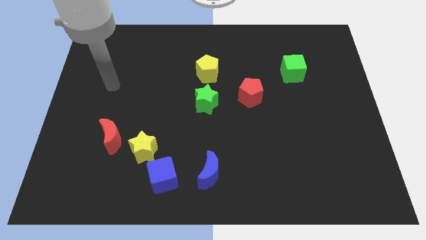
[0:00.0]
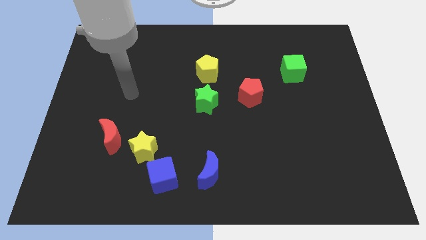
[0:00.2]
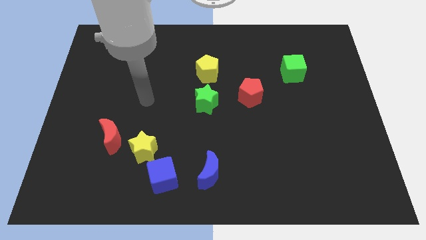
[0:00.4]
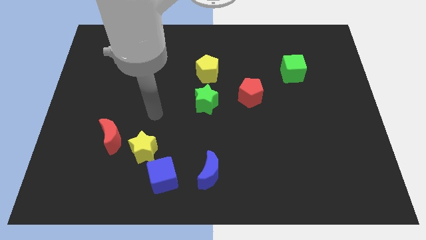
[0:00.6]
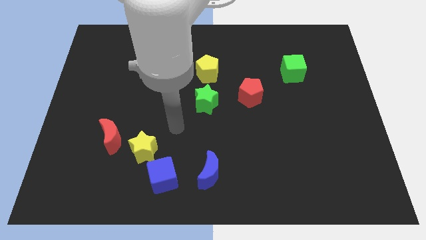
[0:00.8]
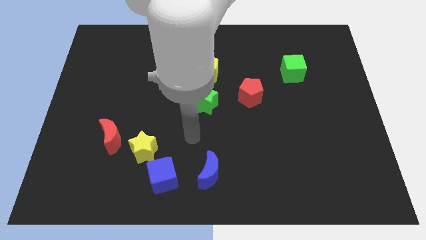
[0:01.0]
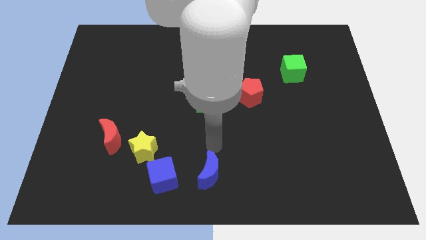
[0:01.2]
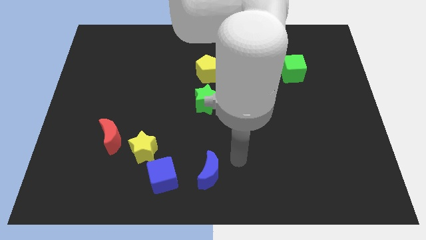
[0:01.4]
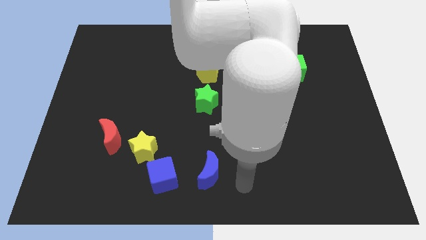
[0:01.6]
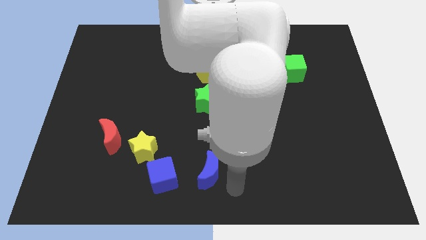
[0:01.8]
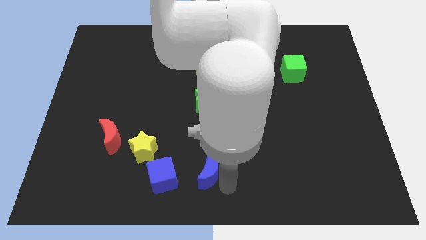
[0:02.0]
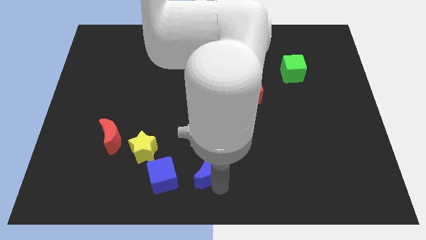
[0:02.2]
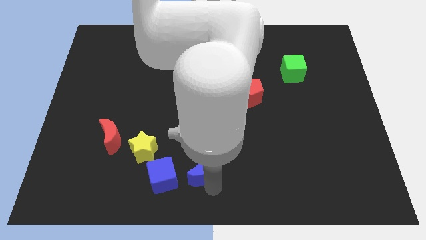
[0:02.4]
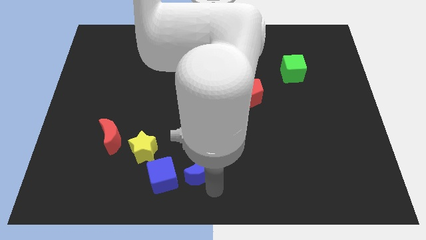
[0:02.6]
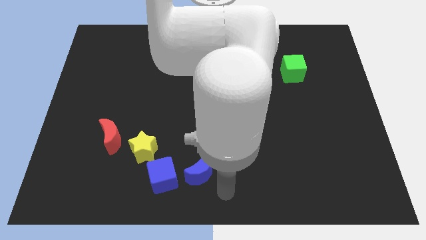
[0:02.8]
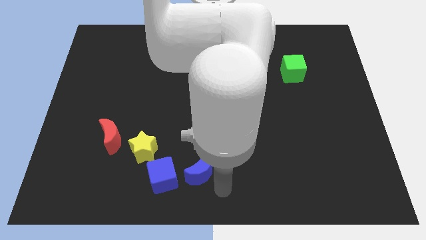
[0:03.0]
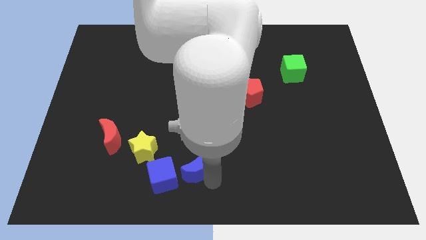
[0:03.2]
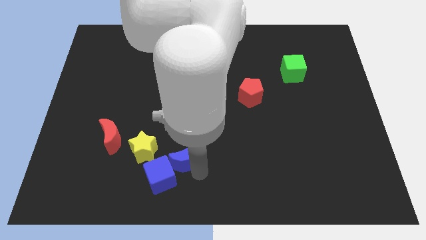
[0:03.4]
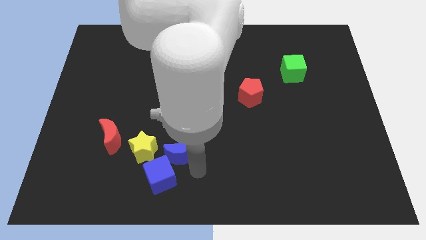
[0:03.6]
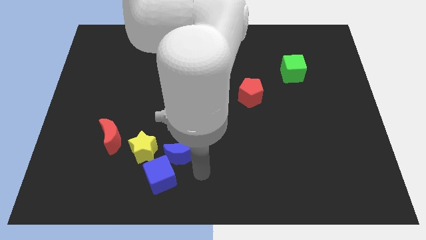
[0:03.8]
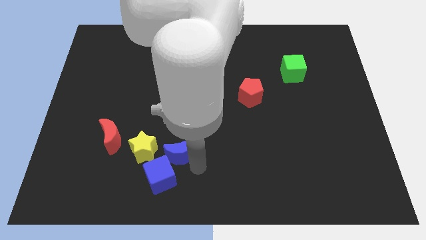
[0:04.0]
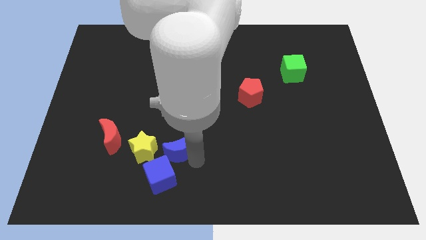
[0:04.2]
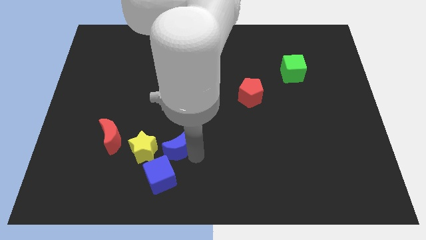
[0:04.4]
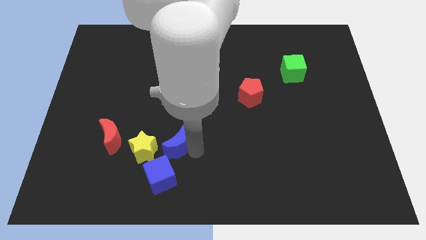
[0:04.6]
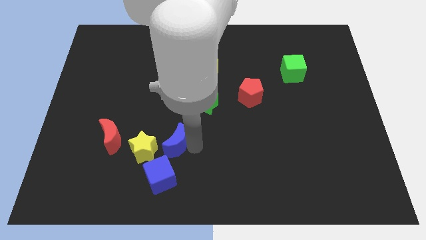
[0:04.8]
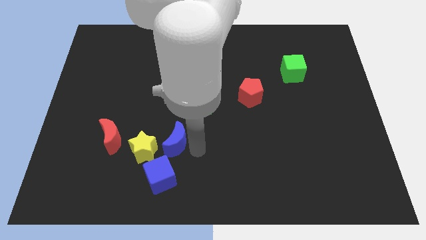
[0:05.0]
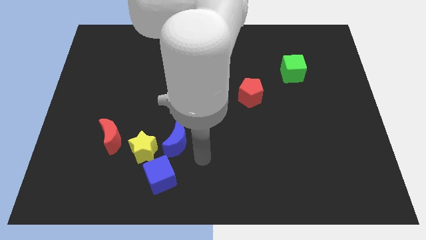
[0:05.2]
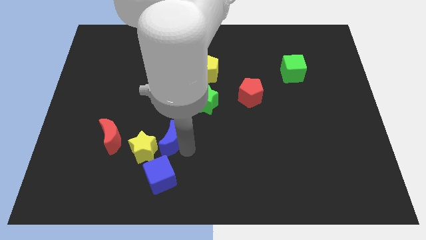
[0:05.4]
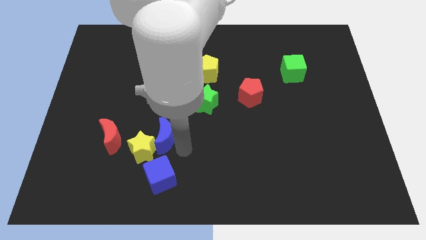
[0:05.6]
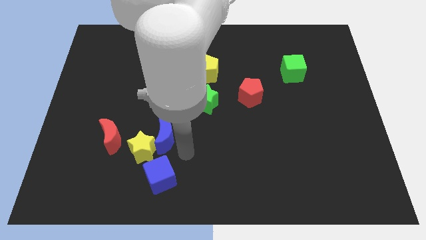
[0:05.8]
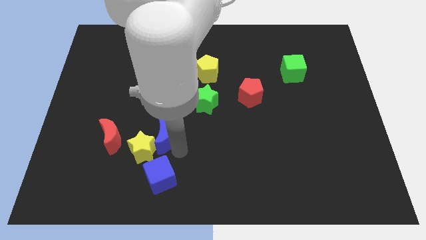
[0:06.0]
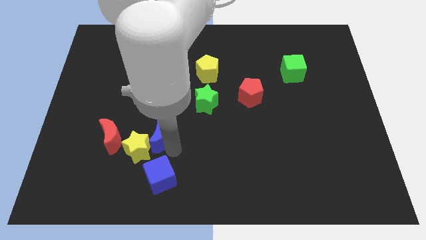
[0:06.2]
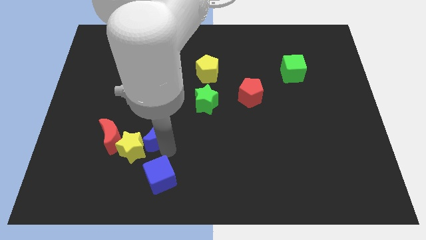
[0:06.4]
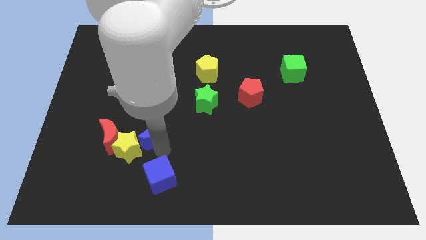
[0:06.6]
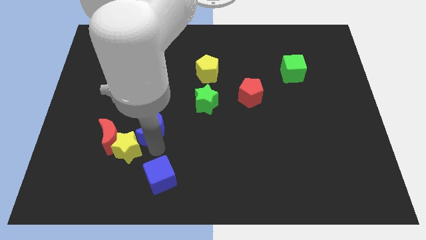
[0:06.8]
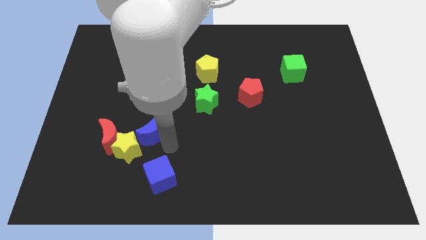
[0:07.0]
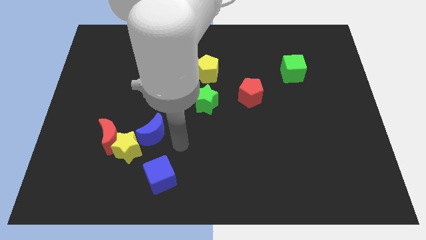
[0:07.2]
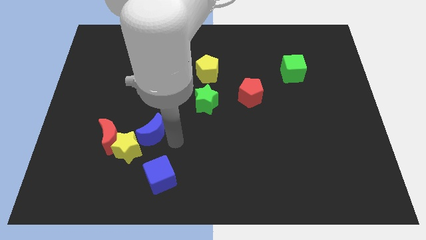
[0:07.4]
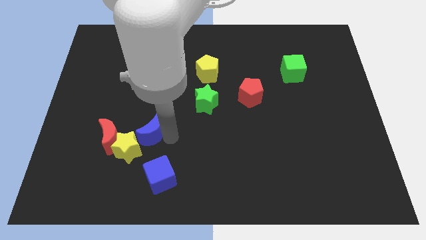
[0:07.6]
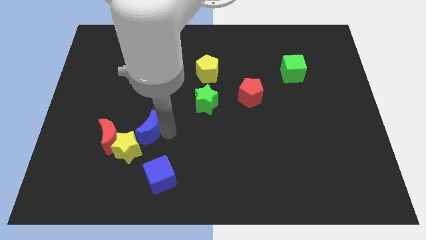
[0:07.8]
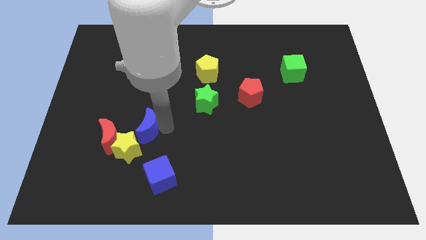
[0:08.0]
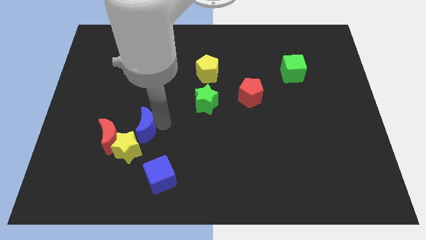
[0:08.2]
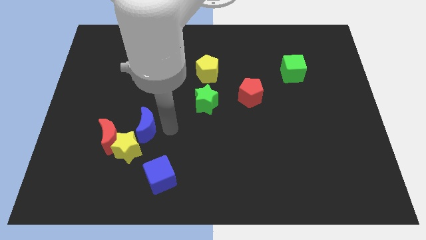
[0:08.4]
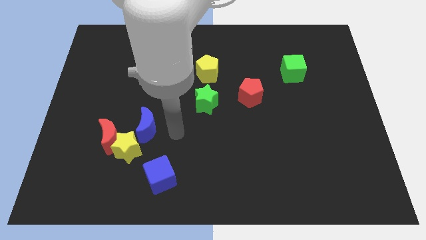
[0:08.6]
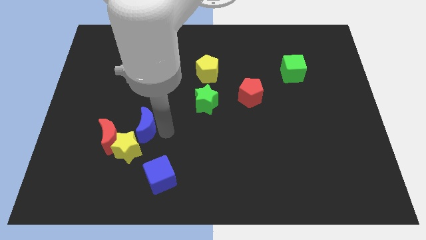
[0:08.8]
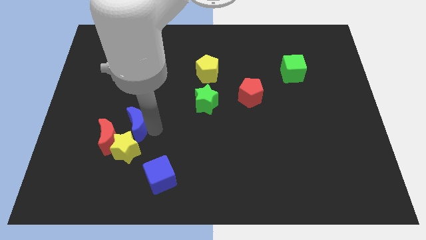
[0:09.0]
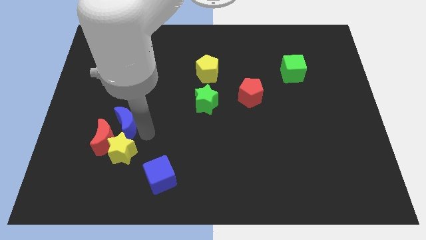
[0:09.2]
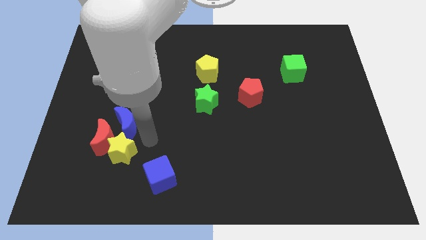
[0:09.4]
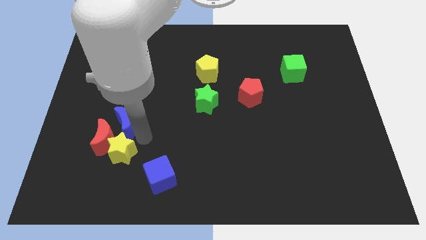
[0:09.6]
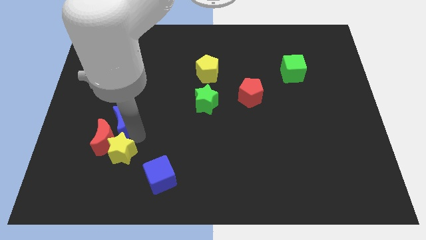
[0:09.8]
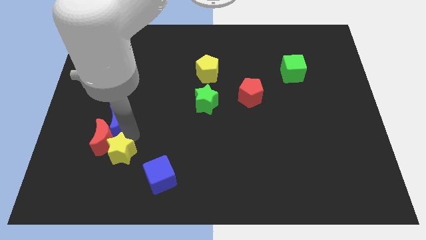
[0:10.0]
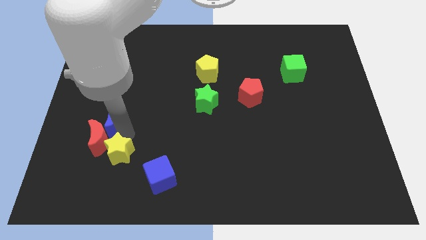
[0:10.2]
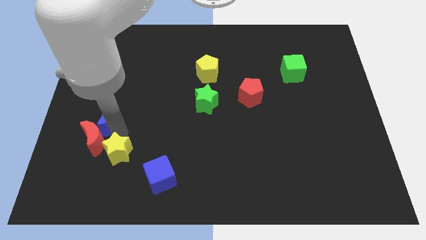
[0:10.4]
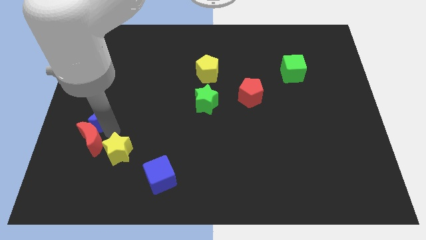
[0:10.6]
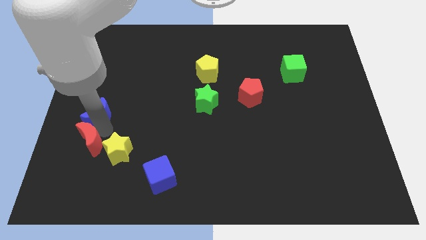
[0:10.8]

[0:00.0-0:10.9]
push the blue moon to the left side of the board
